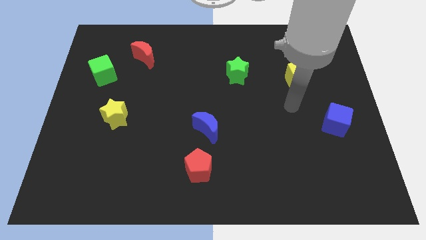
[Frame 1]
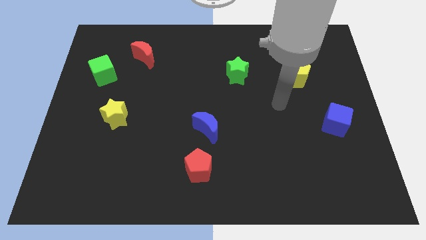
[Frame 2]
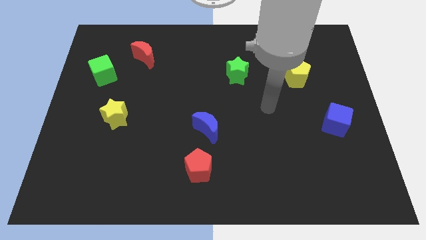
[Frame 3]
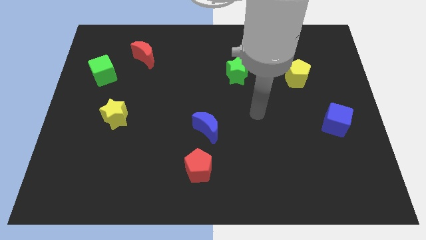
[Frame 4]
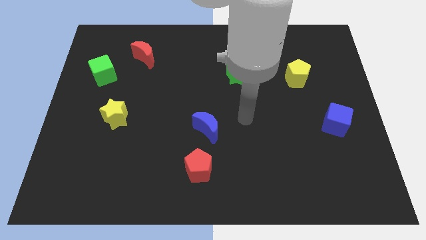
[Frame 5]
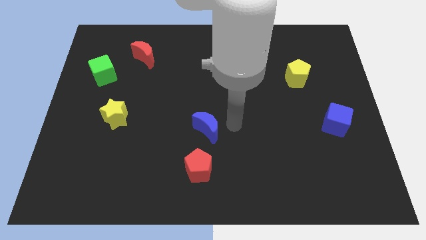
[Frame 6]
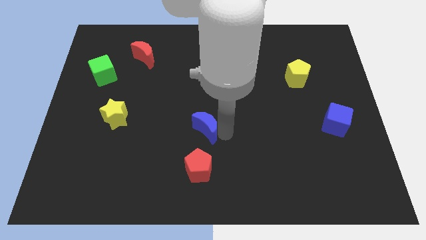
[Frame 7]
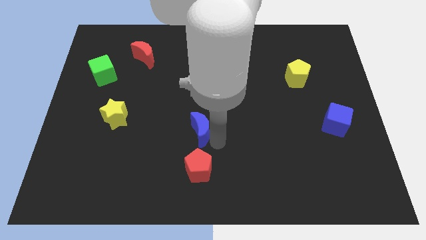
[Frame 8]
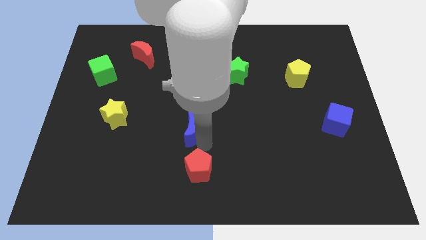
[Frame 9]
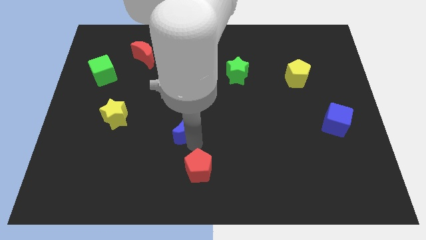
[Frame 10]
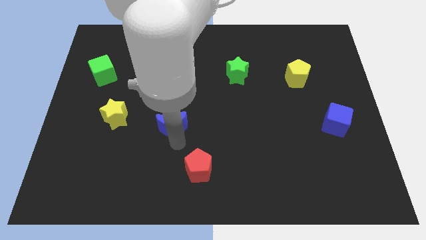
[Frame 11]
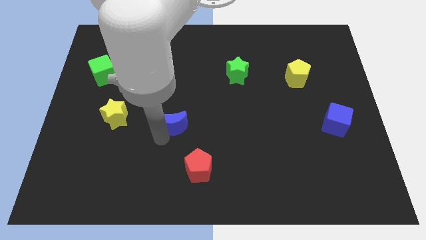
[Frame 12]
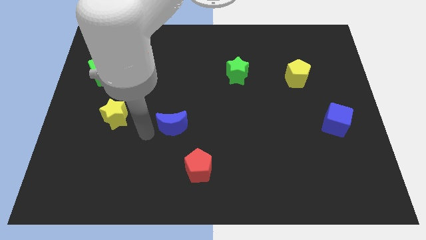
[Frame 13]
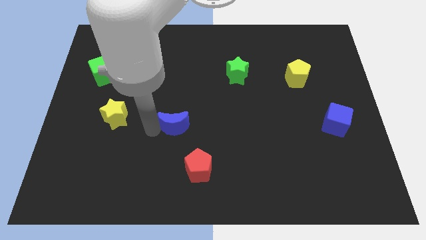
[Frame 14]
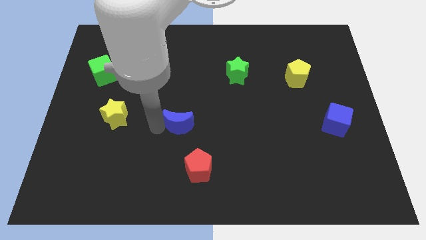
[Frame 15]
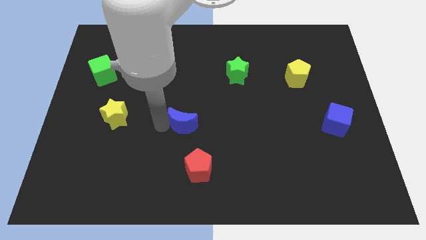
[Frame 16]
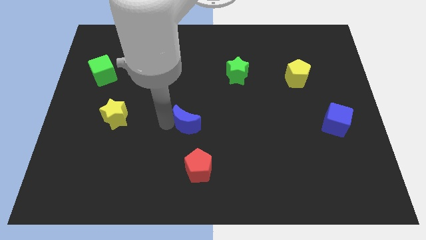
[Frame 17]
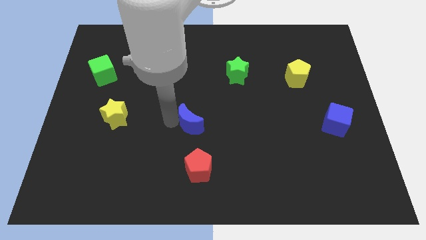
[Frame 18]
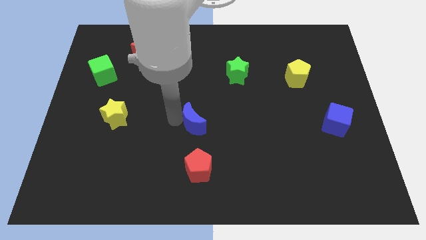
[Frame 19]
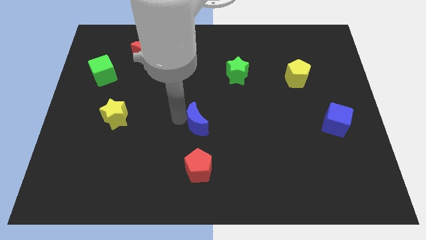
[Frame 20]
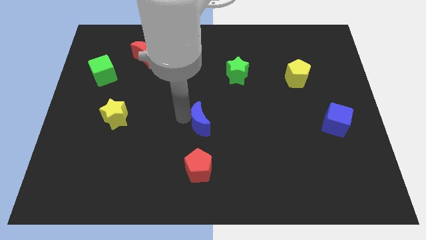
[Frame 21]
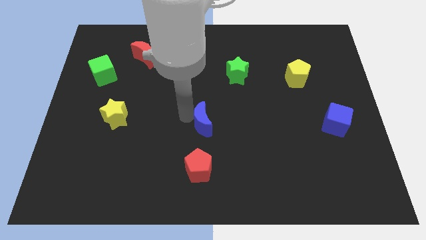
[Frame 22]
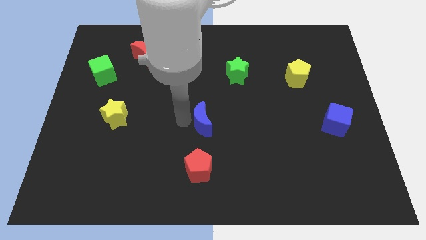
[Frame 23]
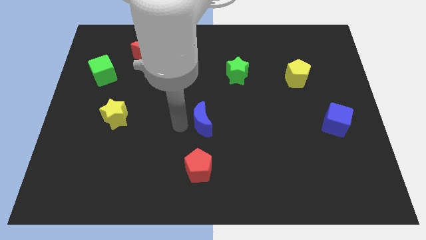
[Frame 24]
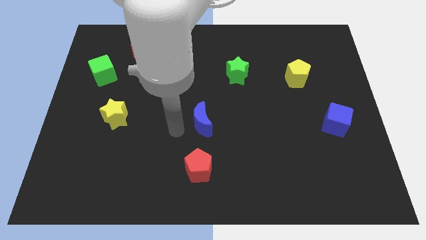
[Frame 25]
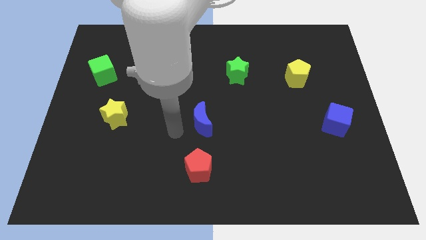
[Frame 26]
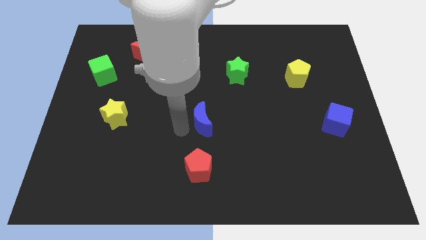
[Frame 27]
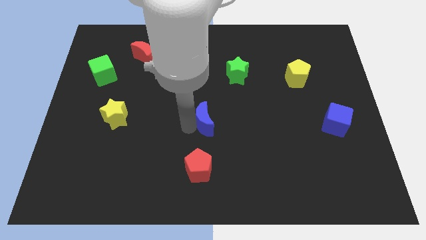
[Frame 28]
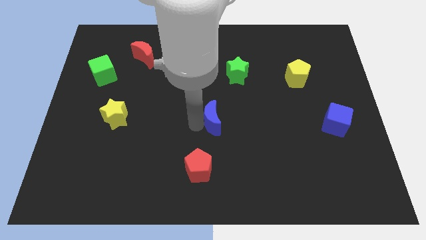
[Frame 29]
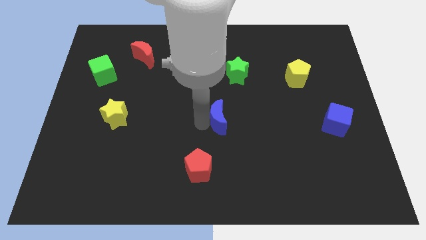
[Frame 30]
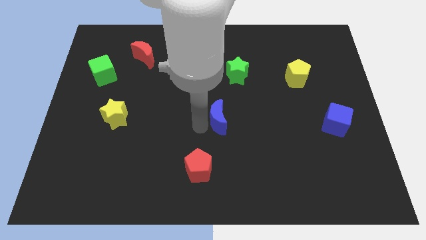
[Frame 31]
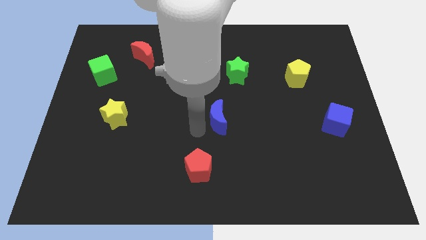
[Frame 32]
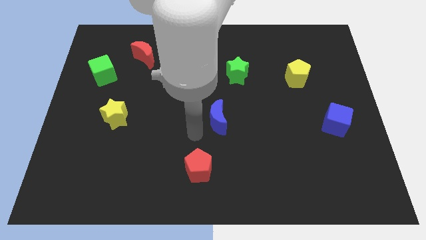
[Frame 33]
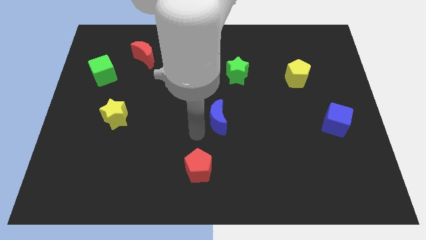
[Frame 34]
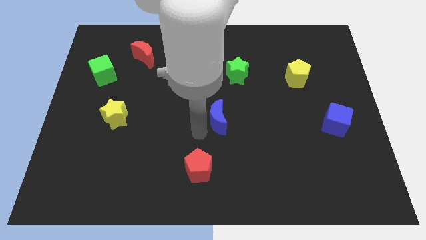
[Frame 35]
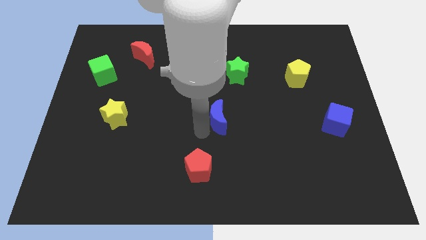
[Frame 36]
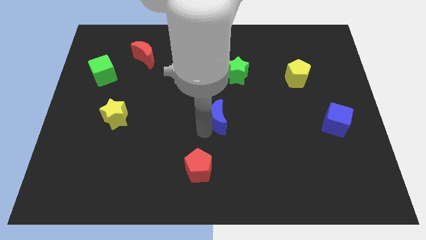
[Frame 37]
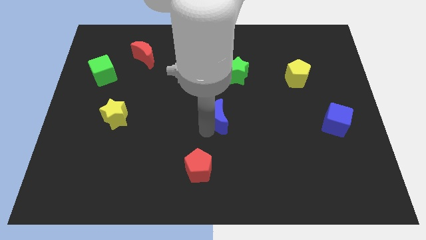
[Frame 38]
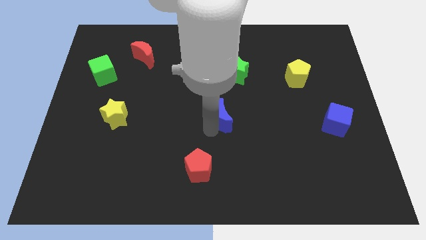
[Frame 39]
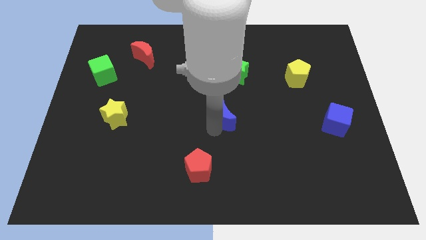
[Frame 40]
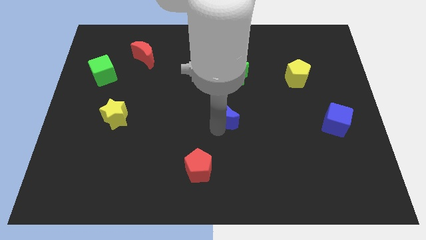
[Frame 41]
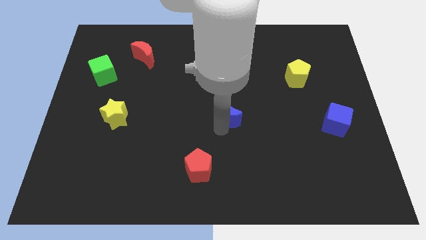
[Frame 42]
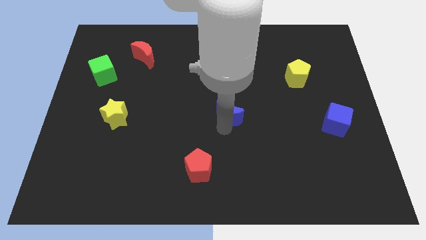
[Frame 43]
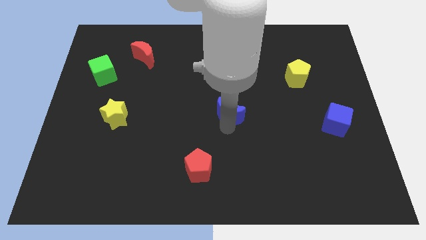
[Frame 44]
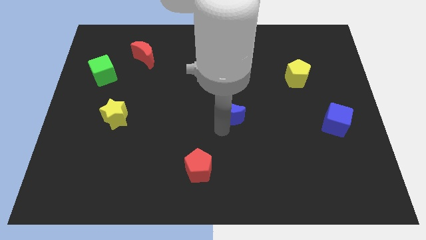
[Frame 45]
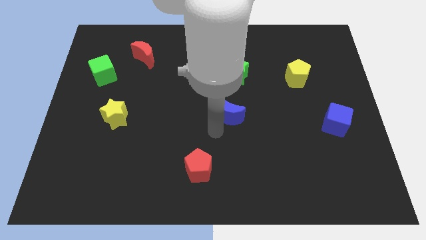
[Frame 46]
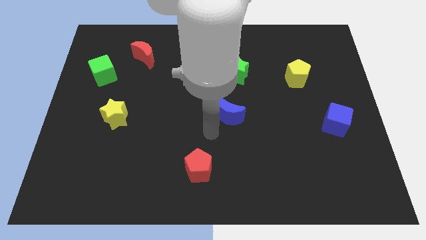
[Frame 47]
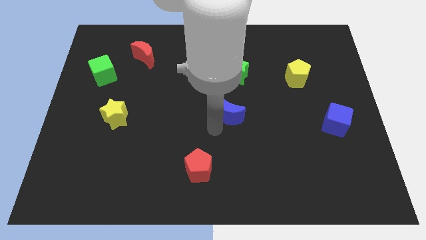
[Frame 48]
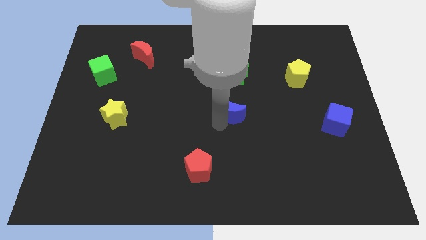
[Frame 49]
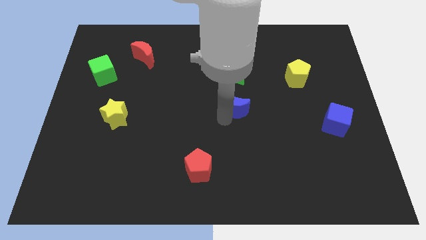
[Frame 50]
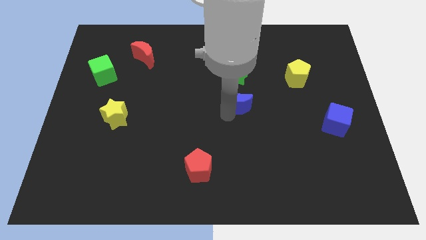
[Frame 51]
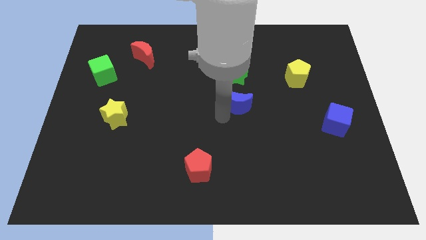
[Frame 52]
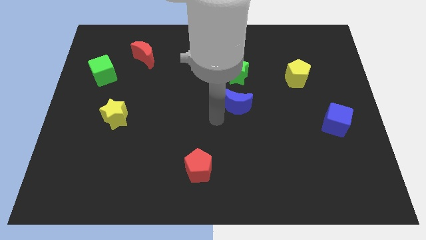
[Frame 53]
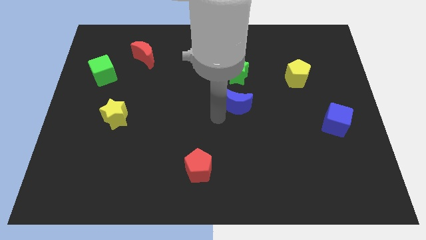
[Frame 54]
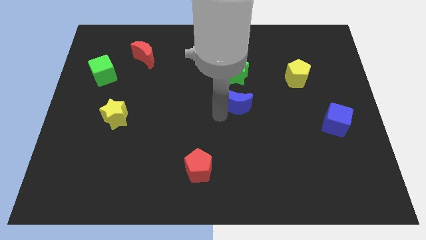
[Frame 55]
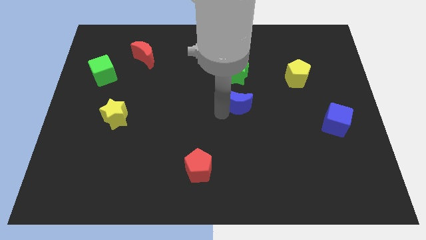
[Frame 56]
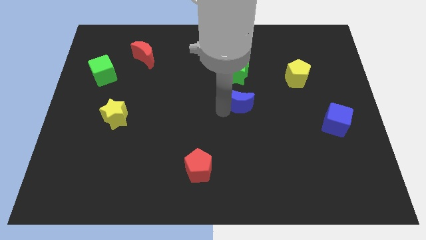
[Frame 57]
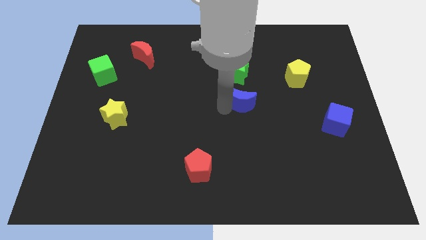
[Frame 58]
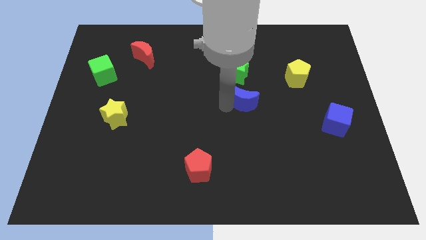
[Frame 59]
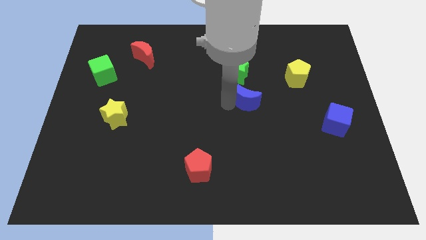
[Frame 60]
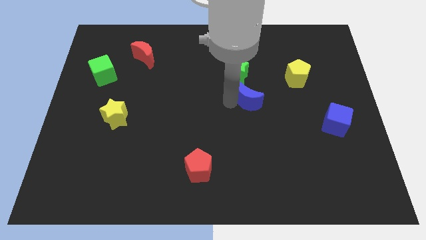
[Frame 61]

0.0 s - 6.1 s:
slide the blue moon to the bottom right of the green star

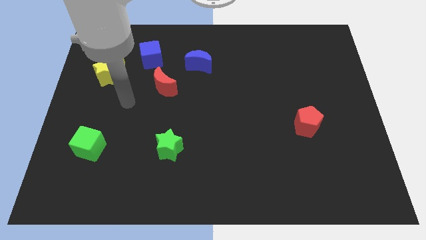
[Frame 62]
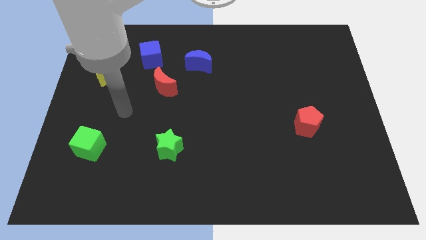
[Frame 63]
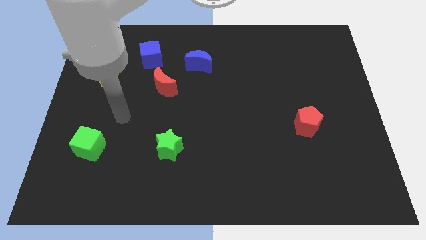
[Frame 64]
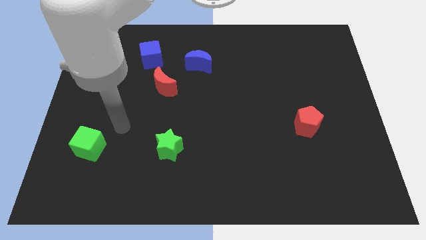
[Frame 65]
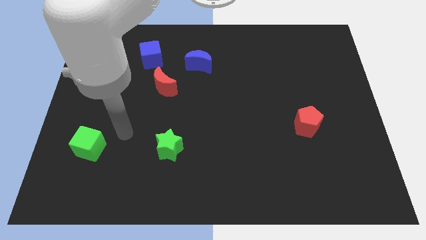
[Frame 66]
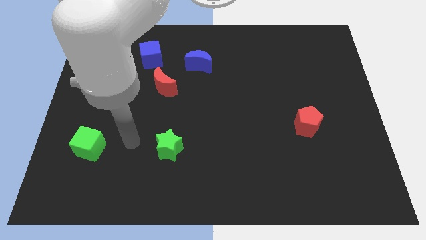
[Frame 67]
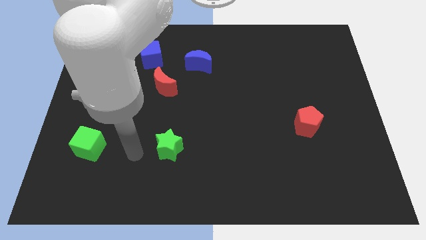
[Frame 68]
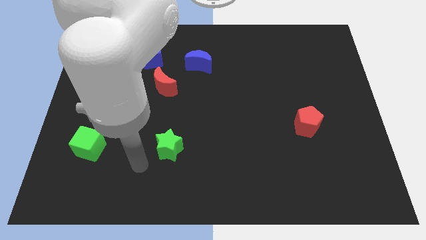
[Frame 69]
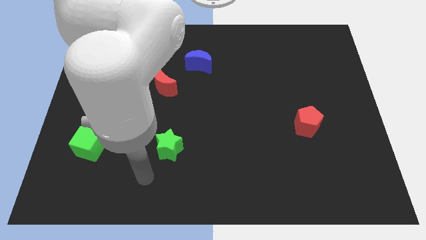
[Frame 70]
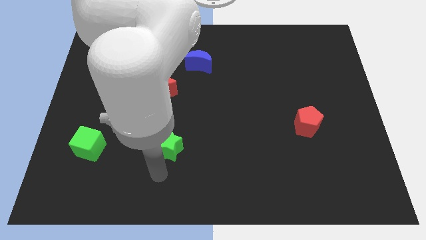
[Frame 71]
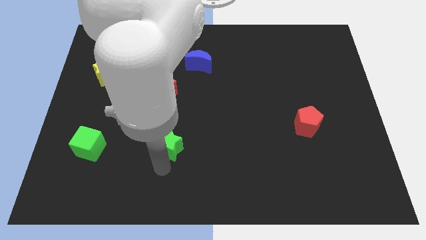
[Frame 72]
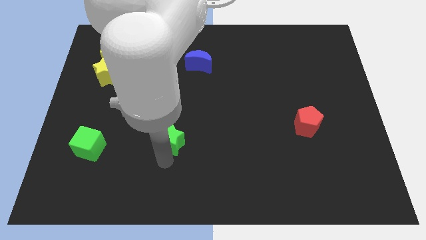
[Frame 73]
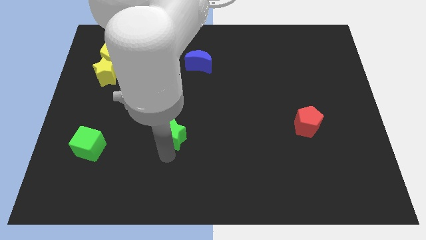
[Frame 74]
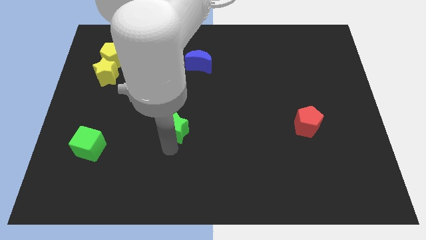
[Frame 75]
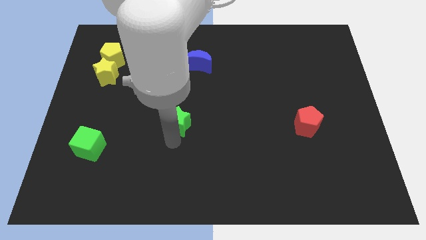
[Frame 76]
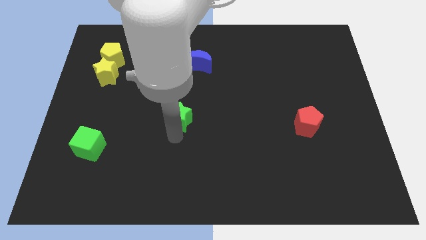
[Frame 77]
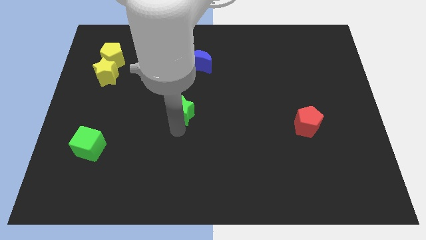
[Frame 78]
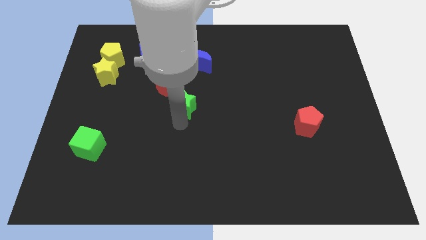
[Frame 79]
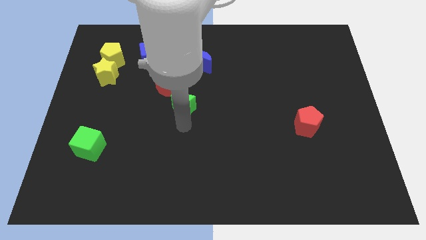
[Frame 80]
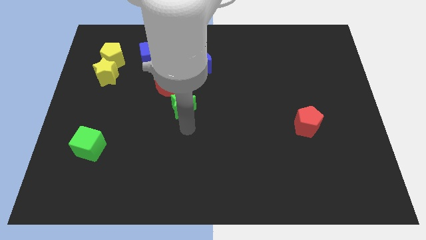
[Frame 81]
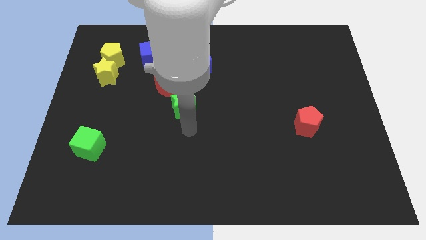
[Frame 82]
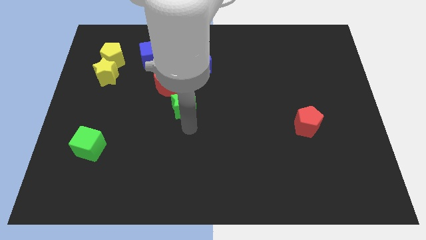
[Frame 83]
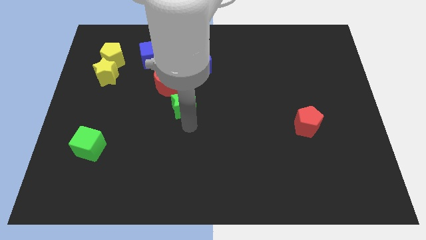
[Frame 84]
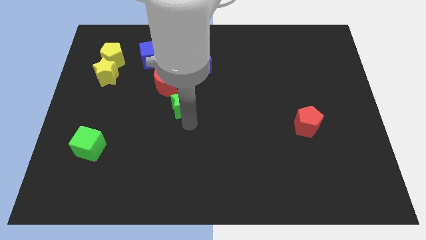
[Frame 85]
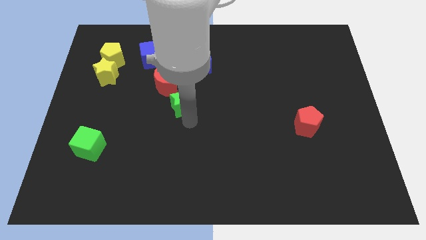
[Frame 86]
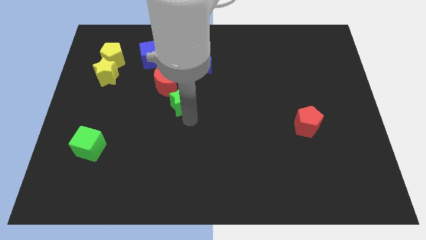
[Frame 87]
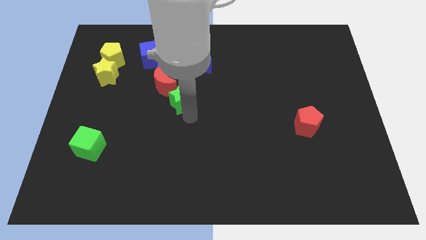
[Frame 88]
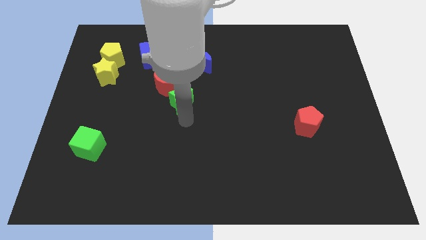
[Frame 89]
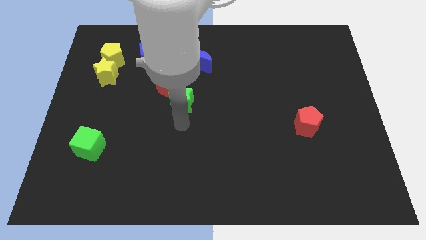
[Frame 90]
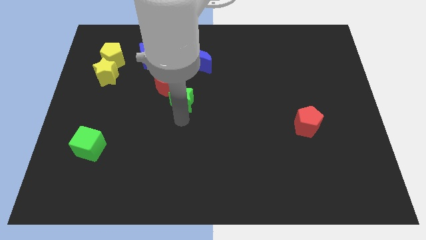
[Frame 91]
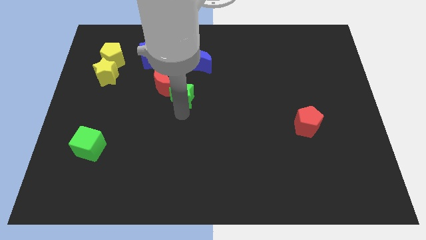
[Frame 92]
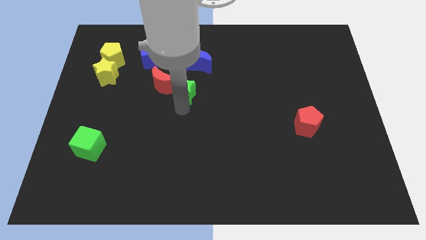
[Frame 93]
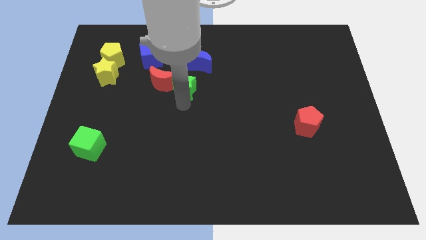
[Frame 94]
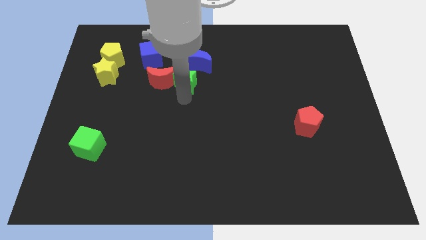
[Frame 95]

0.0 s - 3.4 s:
move the green star to the top right side of the red moon
